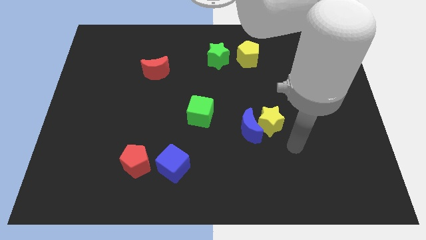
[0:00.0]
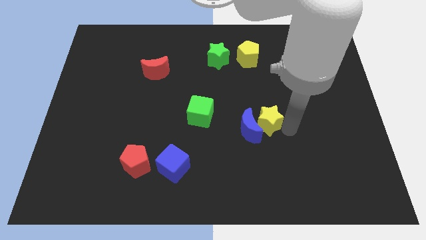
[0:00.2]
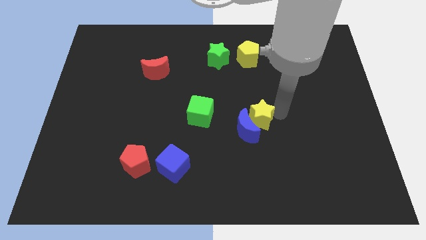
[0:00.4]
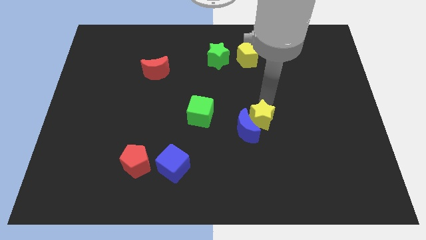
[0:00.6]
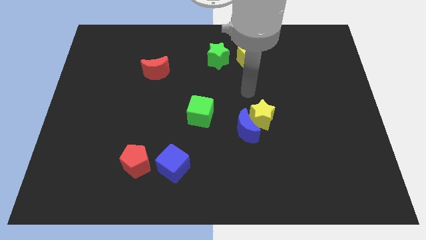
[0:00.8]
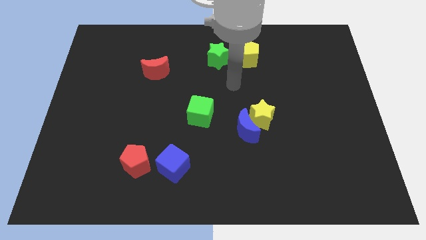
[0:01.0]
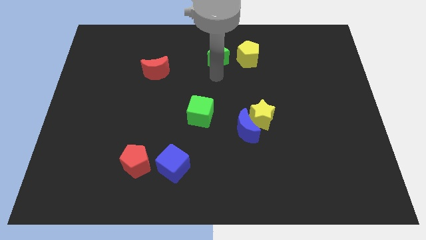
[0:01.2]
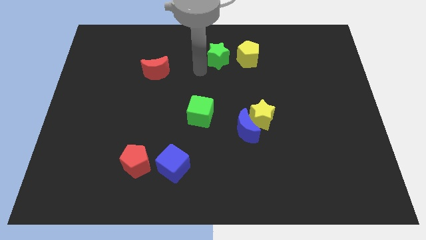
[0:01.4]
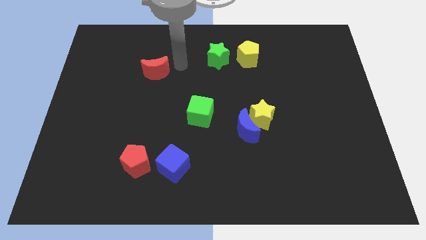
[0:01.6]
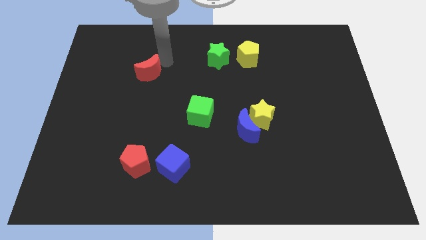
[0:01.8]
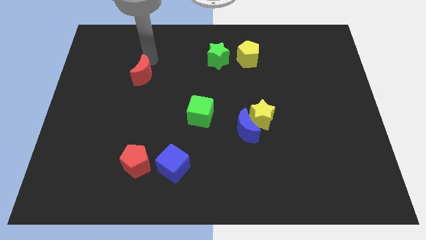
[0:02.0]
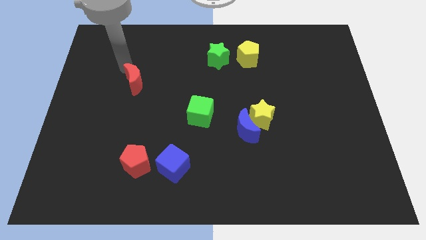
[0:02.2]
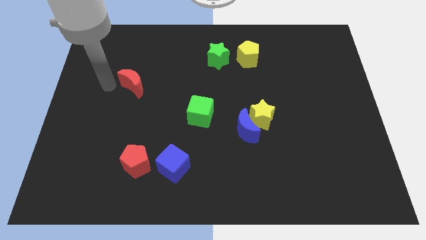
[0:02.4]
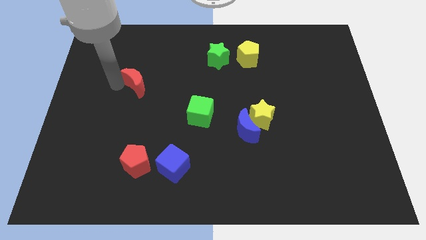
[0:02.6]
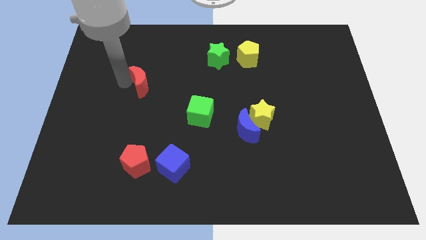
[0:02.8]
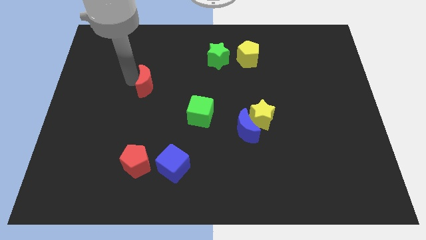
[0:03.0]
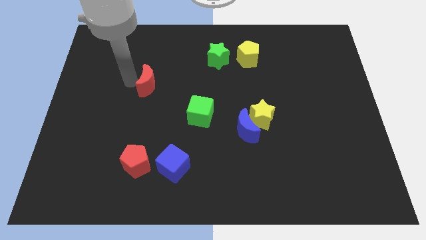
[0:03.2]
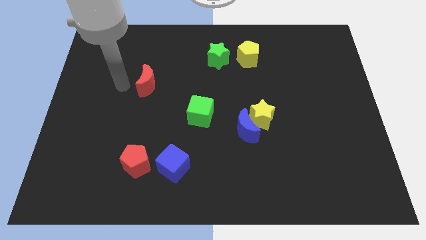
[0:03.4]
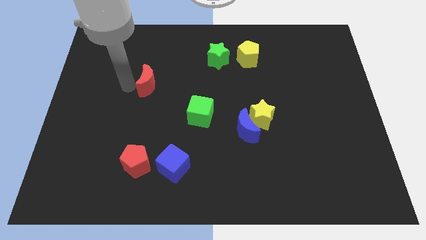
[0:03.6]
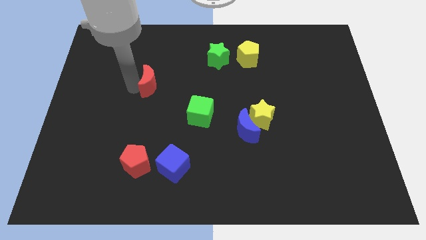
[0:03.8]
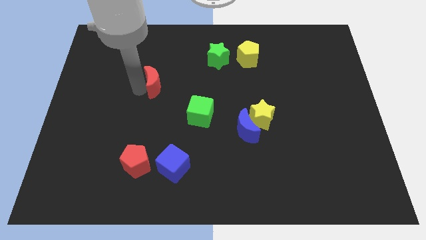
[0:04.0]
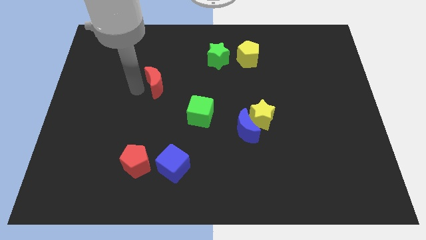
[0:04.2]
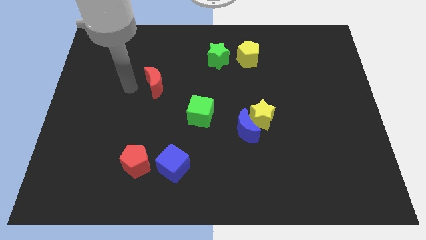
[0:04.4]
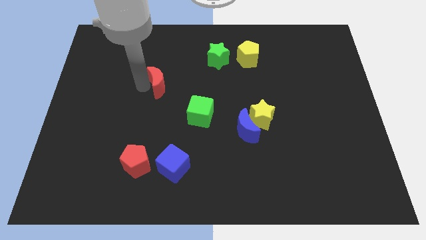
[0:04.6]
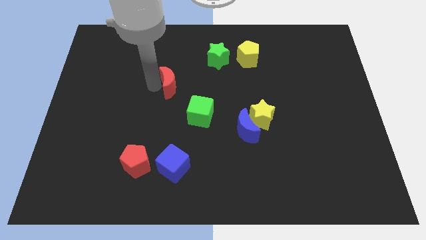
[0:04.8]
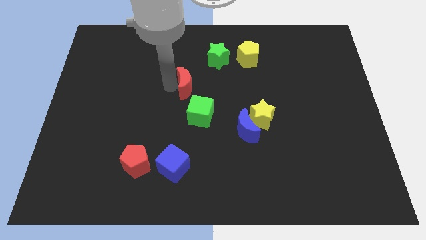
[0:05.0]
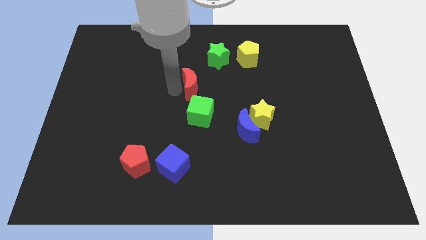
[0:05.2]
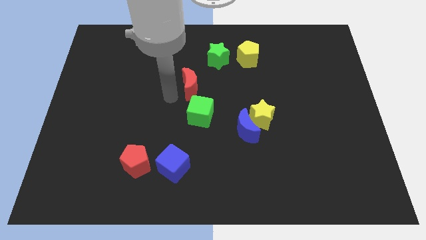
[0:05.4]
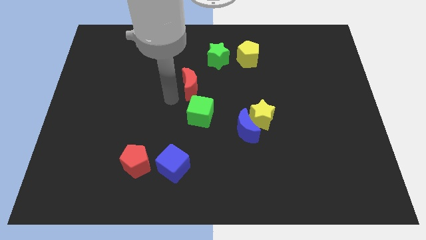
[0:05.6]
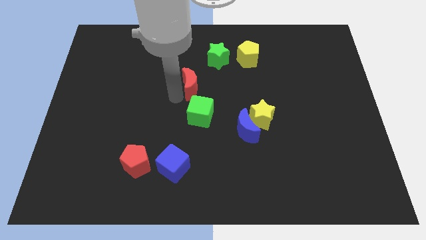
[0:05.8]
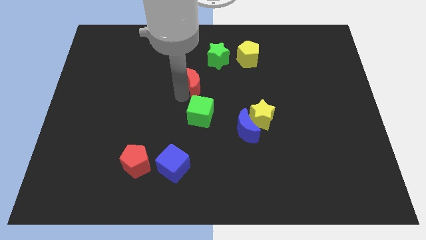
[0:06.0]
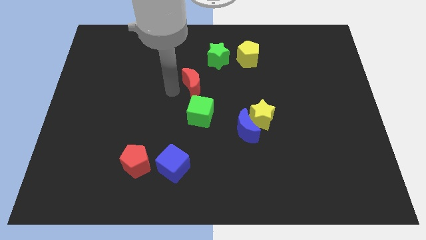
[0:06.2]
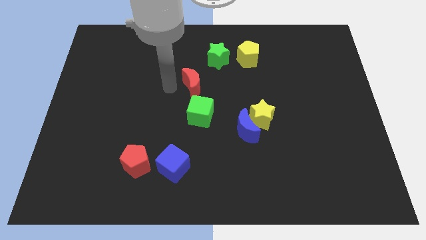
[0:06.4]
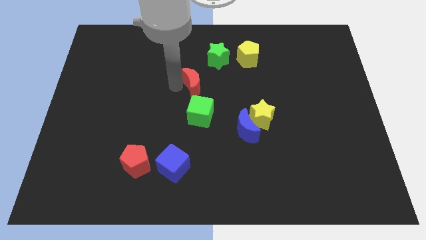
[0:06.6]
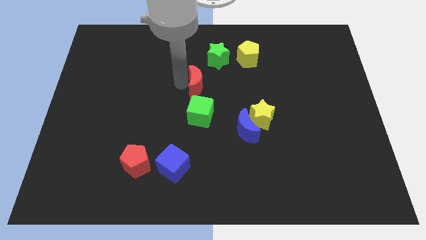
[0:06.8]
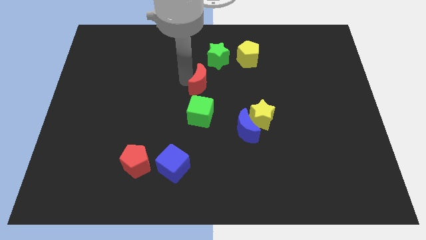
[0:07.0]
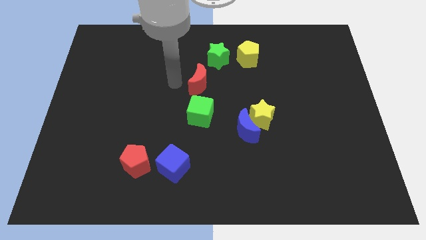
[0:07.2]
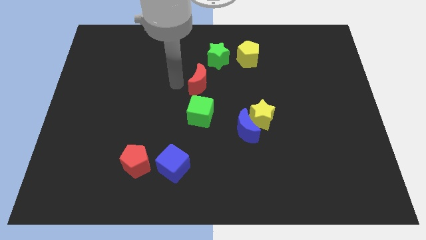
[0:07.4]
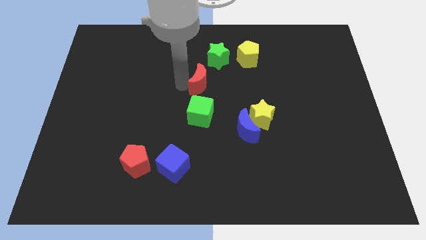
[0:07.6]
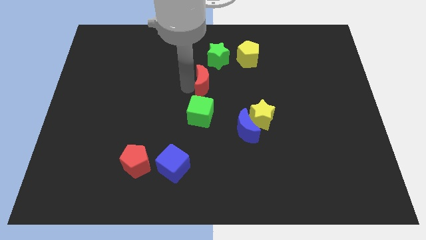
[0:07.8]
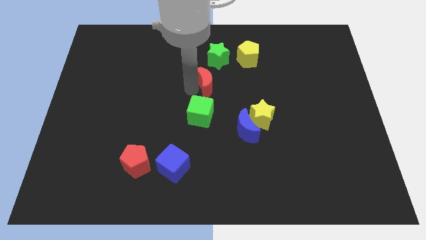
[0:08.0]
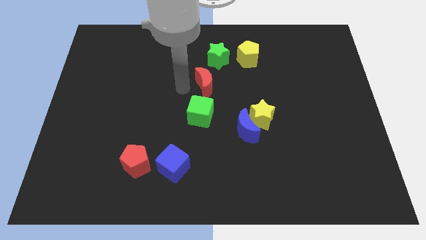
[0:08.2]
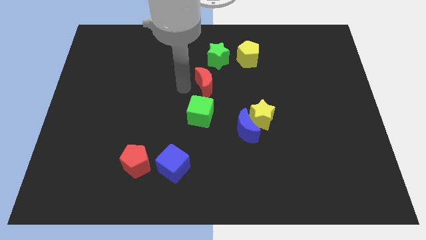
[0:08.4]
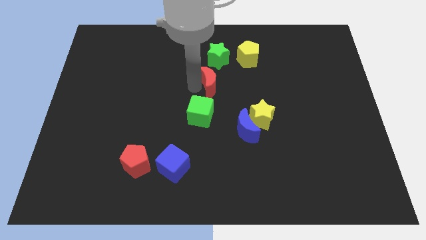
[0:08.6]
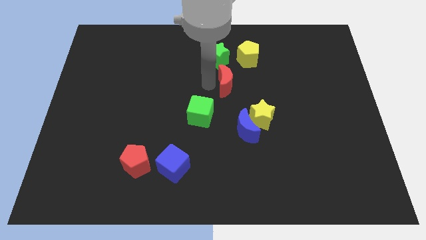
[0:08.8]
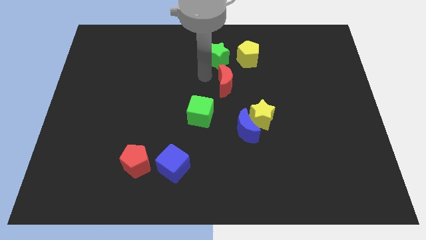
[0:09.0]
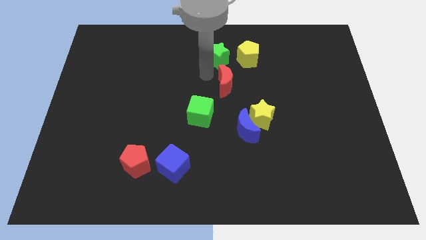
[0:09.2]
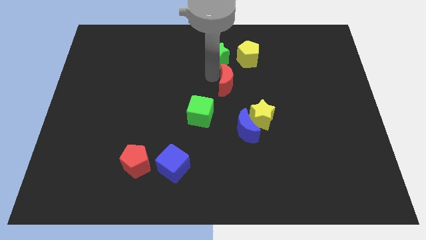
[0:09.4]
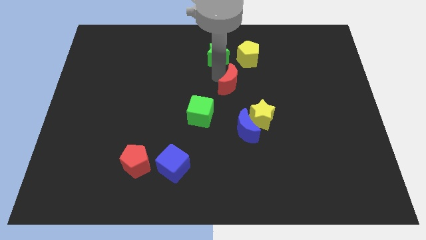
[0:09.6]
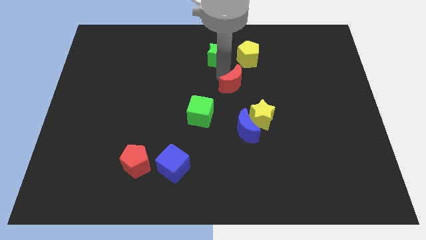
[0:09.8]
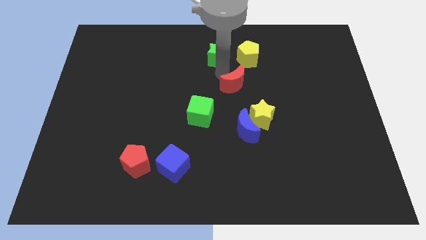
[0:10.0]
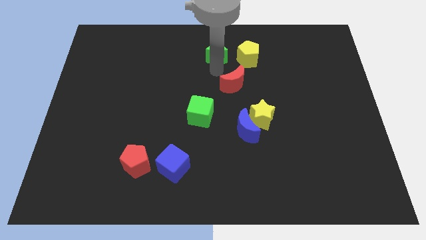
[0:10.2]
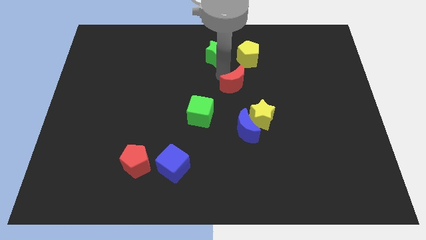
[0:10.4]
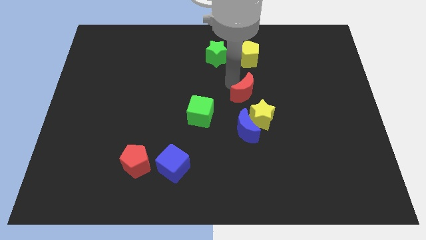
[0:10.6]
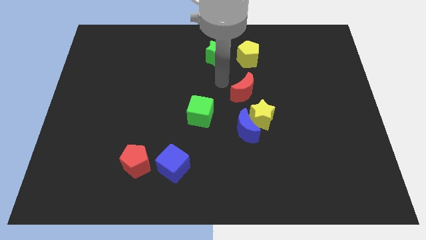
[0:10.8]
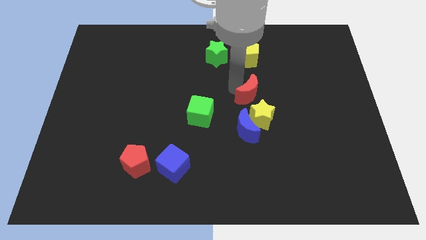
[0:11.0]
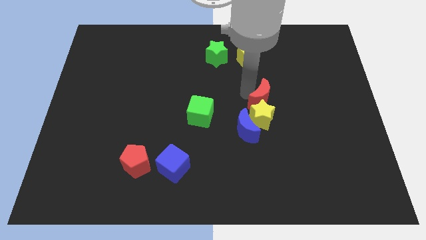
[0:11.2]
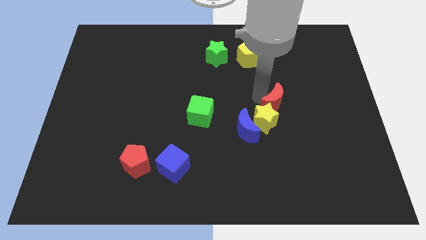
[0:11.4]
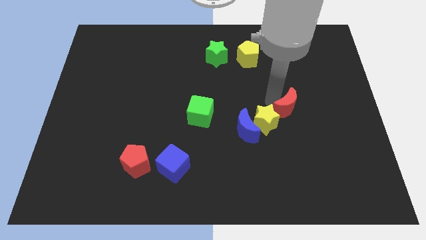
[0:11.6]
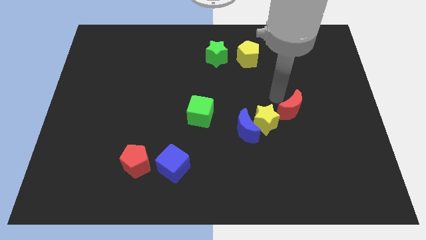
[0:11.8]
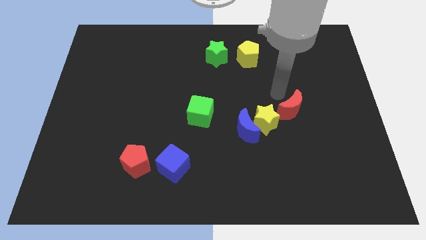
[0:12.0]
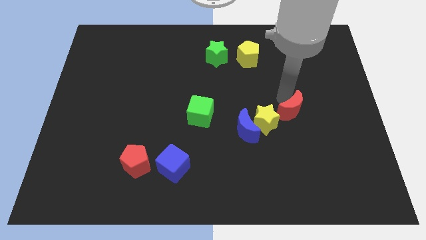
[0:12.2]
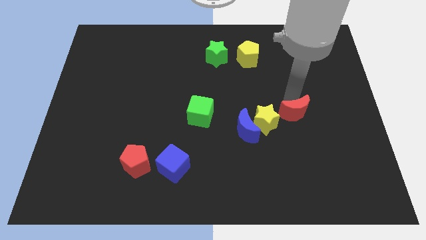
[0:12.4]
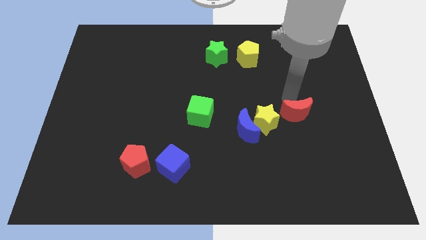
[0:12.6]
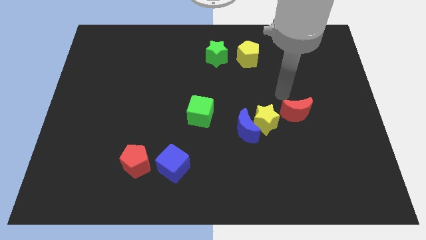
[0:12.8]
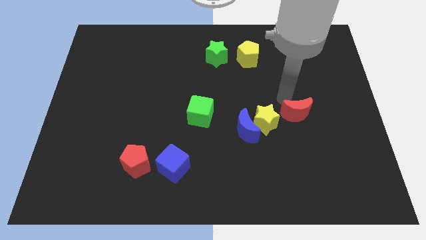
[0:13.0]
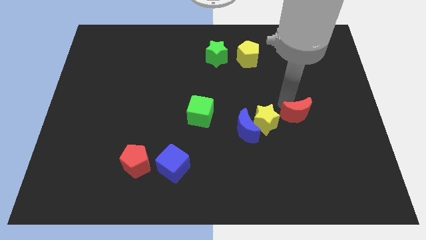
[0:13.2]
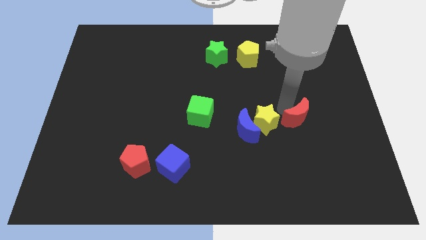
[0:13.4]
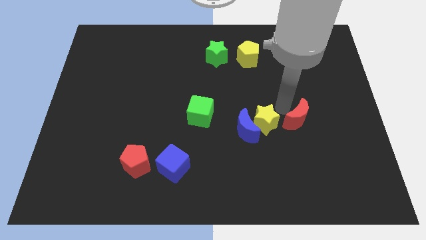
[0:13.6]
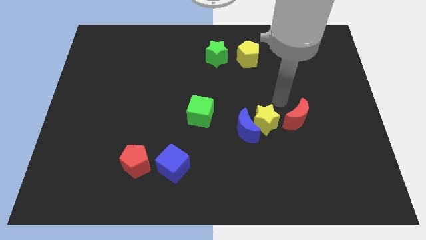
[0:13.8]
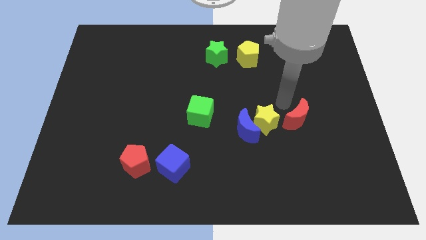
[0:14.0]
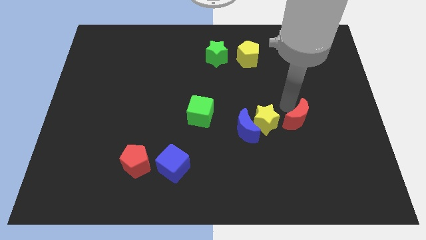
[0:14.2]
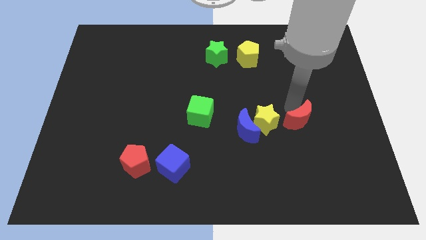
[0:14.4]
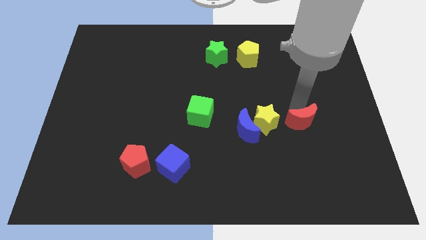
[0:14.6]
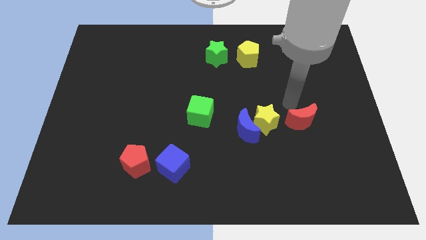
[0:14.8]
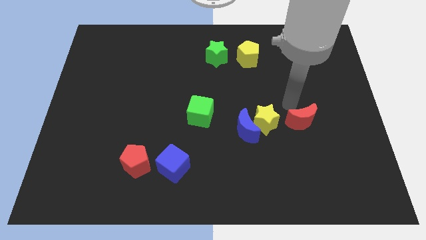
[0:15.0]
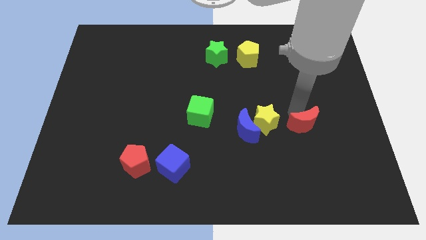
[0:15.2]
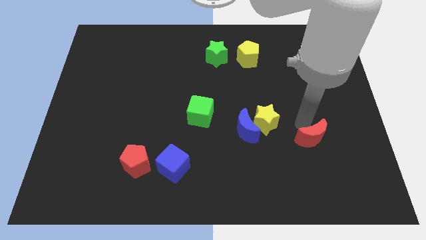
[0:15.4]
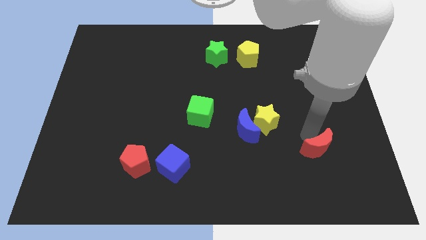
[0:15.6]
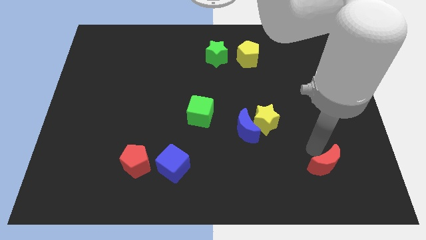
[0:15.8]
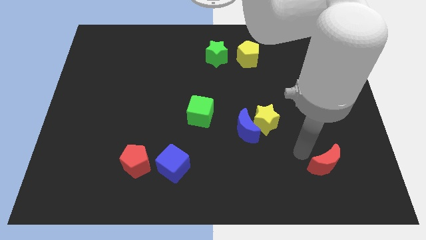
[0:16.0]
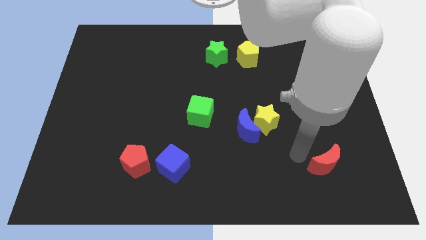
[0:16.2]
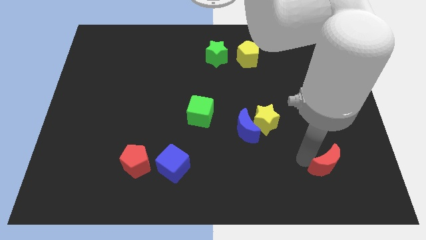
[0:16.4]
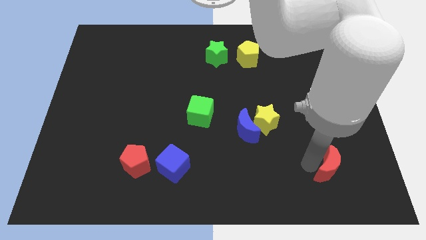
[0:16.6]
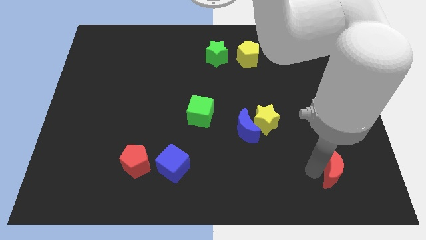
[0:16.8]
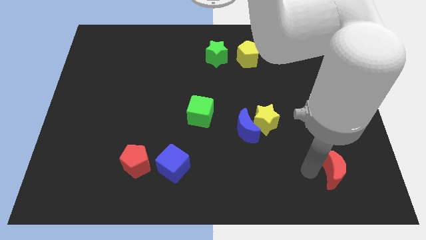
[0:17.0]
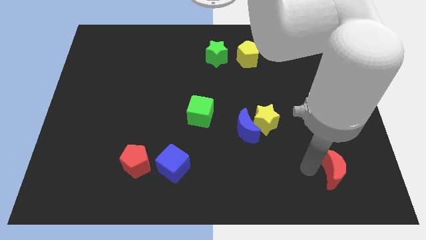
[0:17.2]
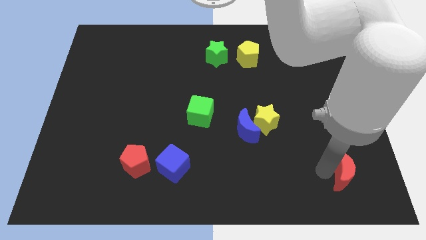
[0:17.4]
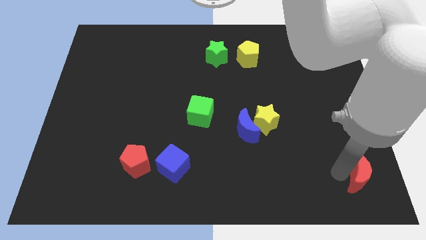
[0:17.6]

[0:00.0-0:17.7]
slide the red moon to the bottom right
